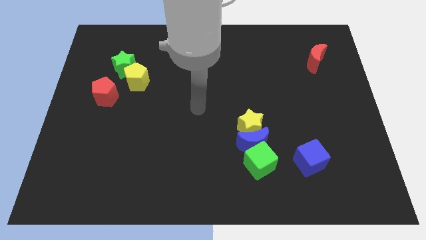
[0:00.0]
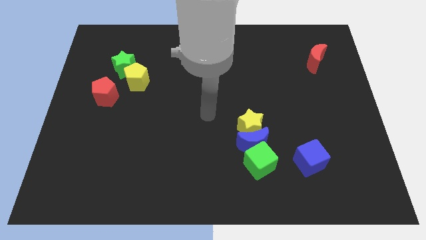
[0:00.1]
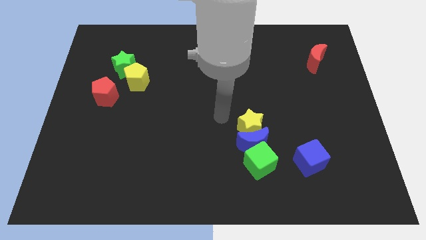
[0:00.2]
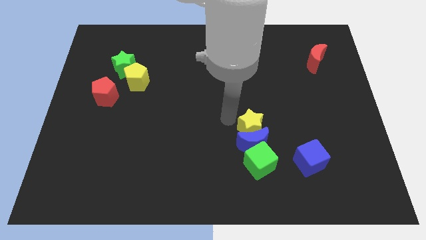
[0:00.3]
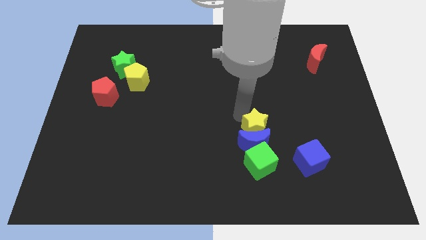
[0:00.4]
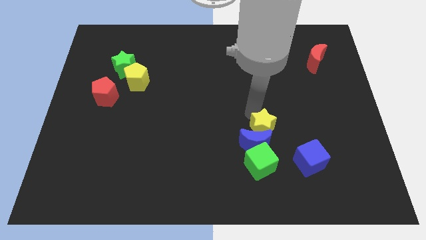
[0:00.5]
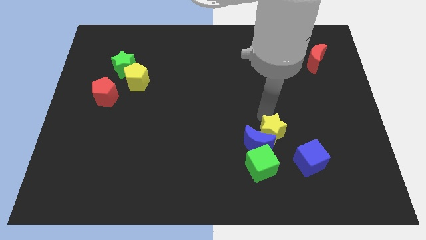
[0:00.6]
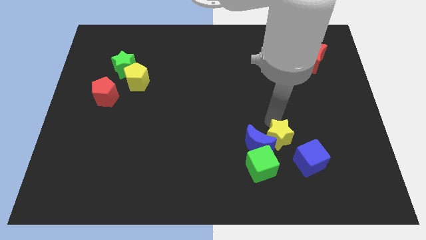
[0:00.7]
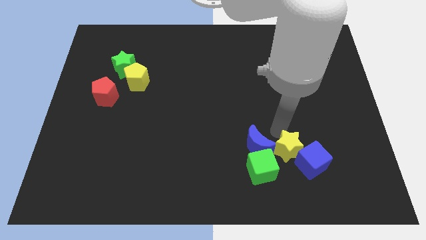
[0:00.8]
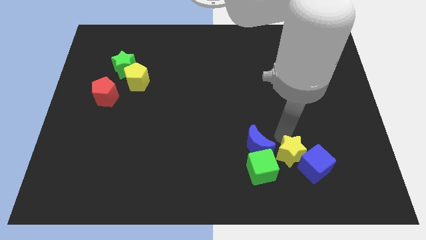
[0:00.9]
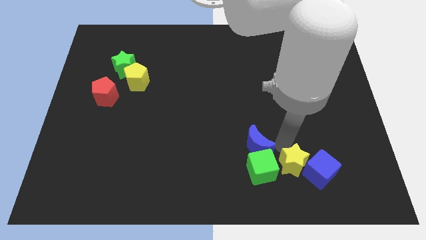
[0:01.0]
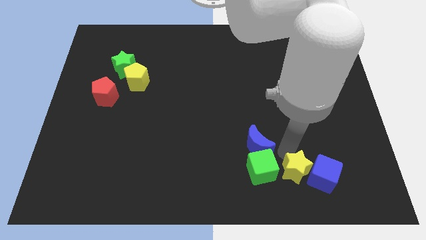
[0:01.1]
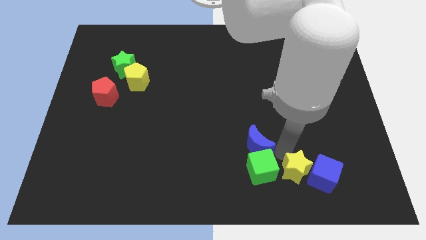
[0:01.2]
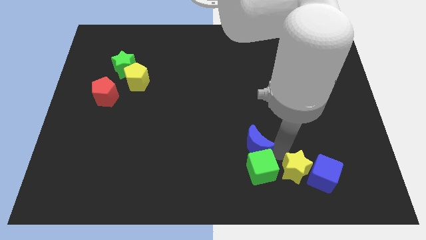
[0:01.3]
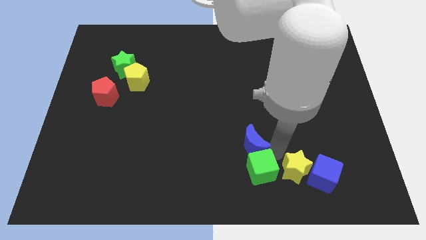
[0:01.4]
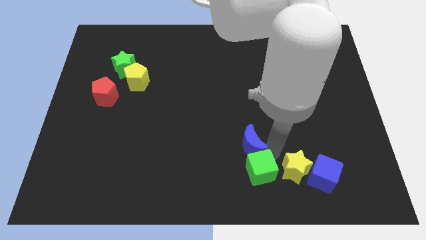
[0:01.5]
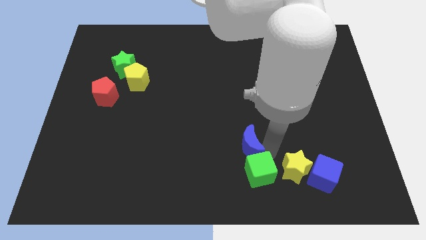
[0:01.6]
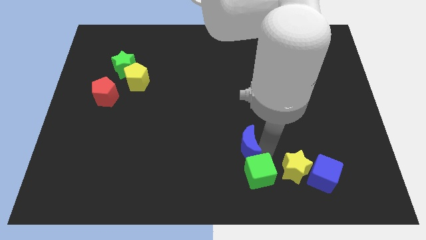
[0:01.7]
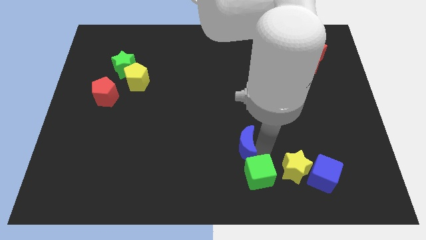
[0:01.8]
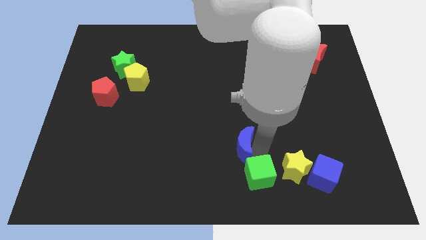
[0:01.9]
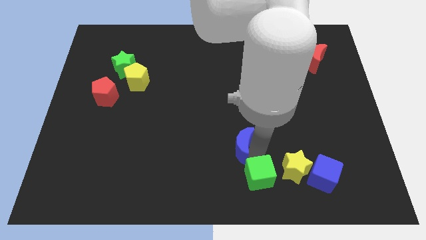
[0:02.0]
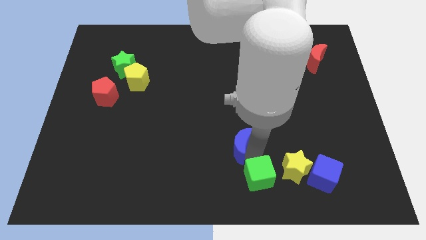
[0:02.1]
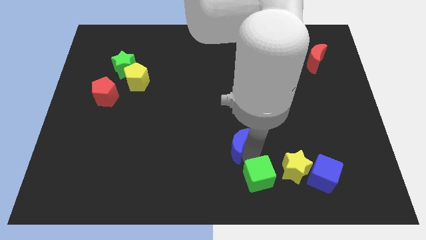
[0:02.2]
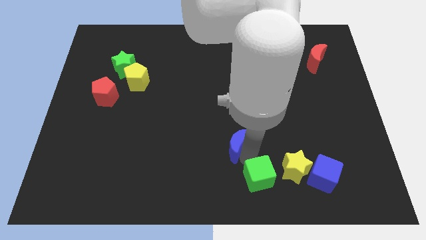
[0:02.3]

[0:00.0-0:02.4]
pull the blue moon apart from the yellow star and green cube

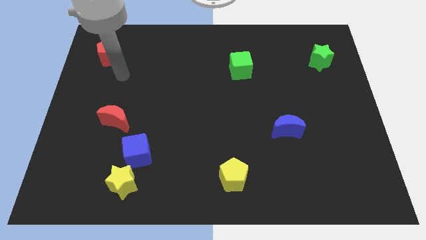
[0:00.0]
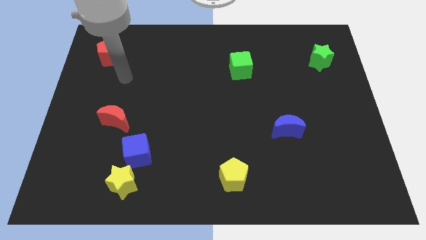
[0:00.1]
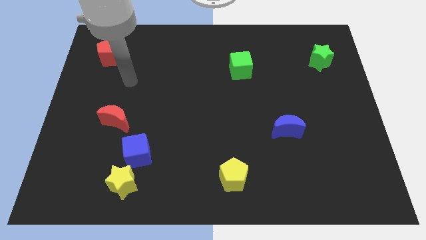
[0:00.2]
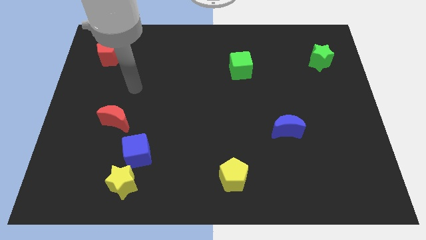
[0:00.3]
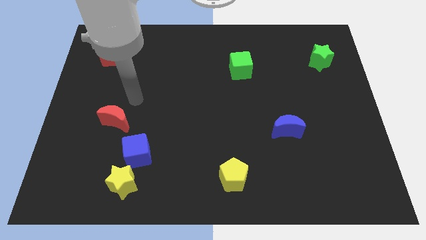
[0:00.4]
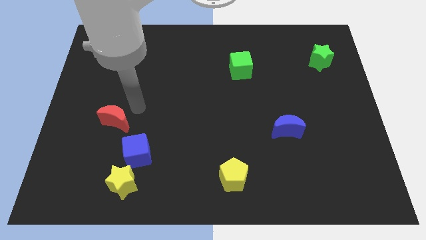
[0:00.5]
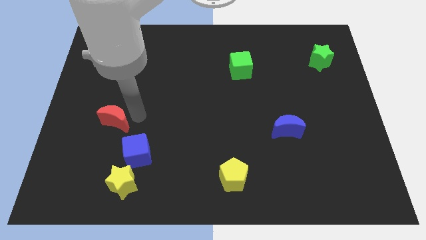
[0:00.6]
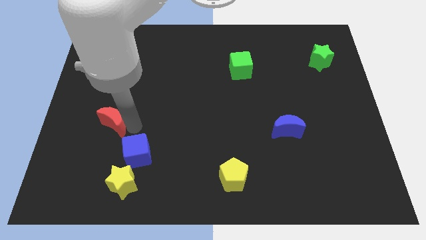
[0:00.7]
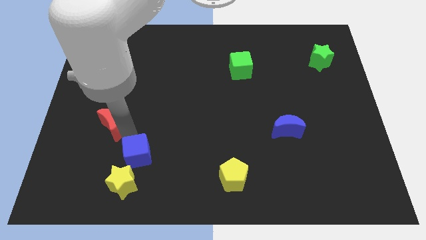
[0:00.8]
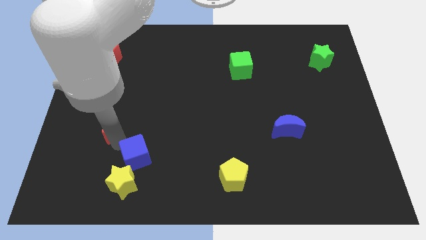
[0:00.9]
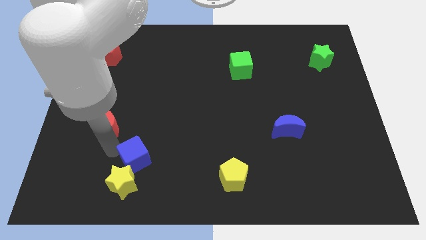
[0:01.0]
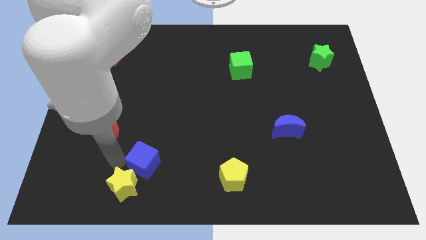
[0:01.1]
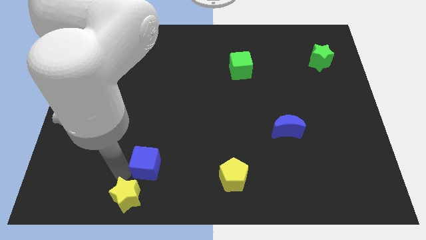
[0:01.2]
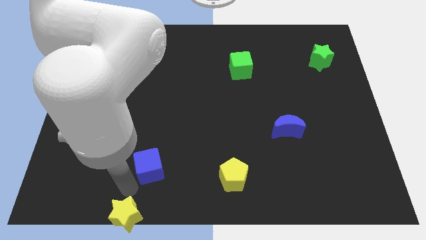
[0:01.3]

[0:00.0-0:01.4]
move the blue cube away from the yellow star

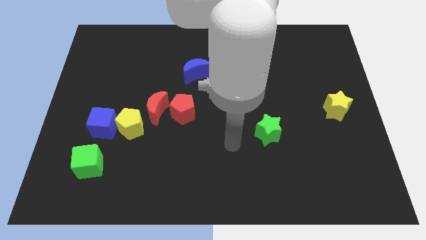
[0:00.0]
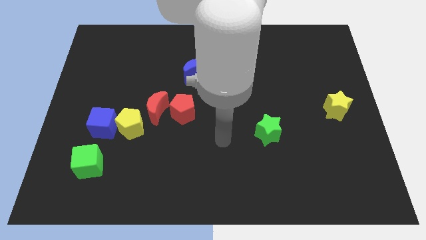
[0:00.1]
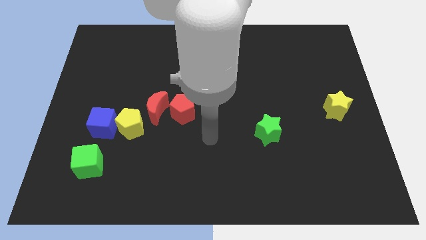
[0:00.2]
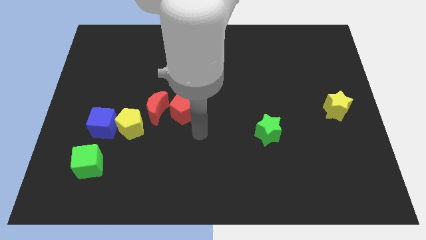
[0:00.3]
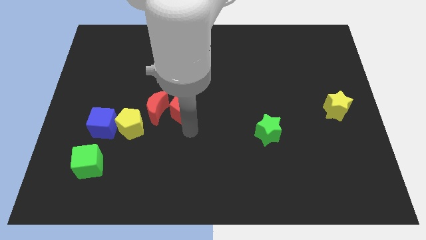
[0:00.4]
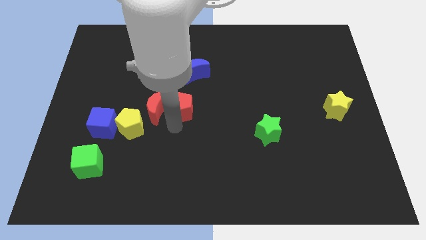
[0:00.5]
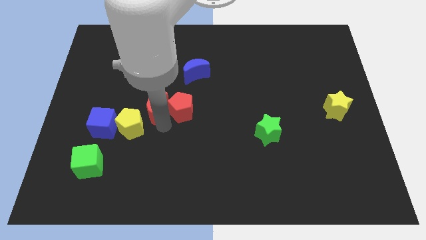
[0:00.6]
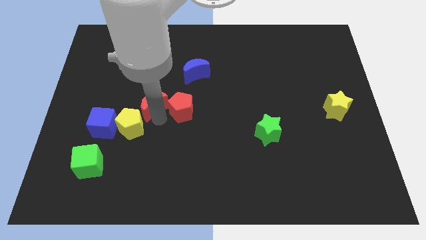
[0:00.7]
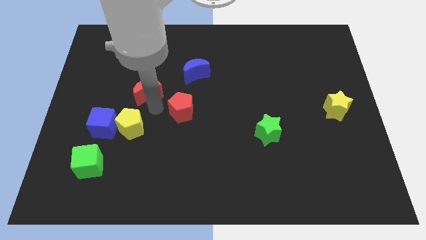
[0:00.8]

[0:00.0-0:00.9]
pull the red pentagon apart from the red moon

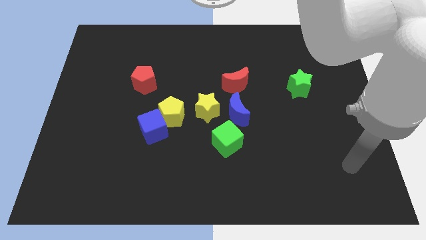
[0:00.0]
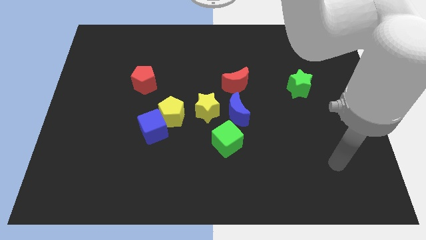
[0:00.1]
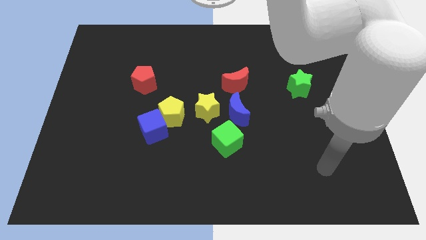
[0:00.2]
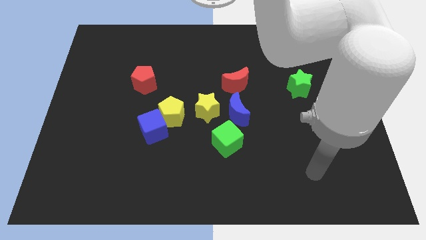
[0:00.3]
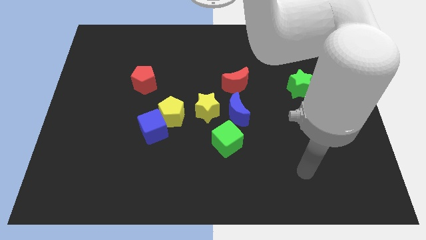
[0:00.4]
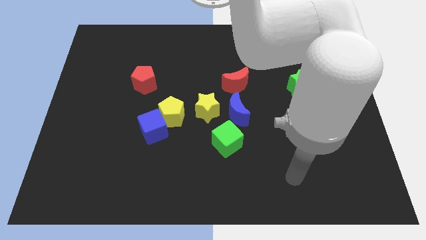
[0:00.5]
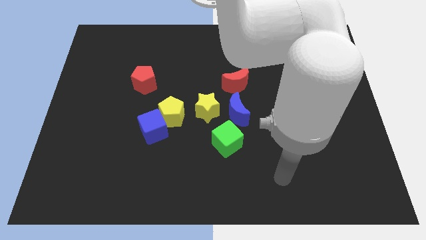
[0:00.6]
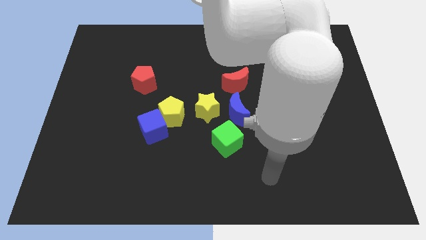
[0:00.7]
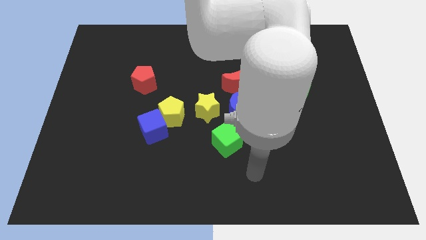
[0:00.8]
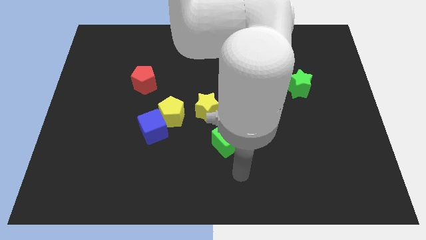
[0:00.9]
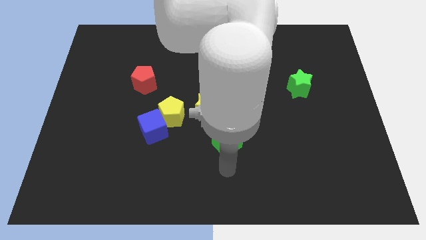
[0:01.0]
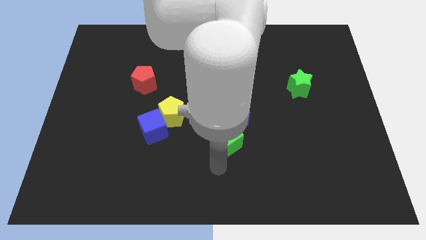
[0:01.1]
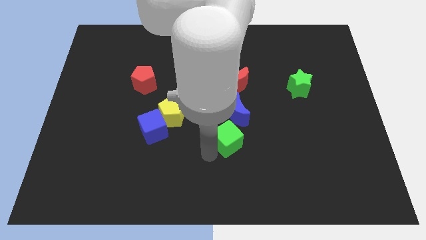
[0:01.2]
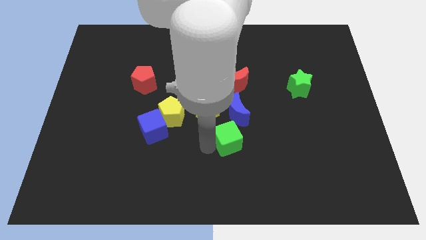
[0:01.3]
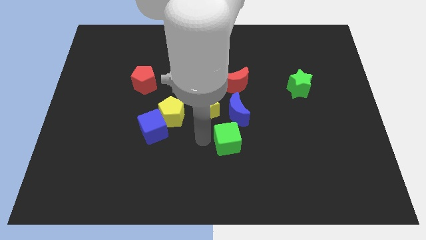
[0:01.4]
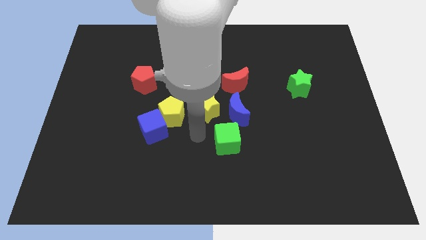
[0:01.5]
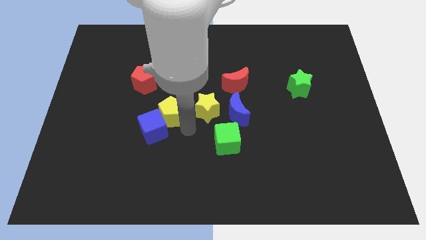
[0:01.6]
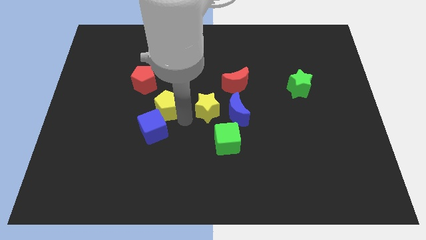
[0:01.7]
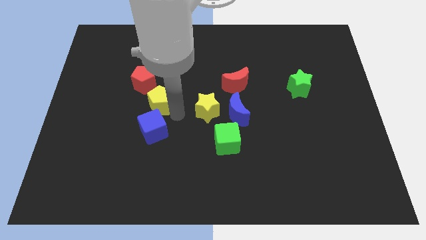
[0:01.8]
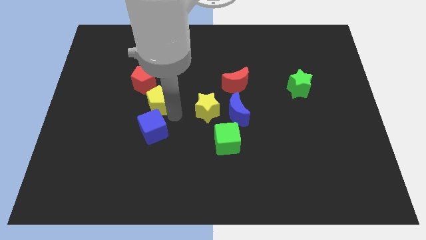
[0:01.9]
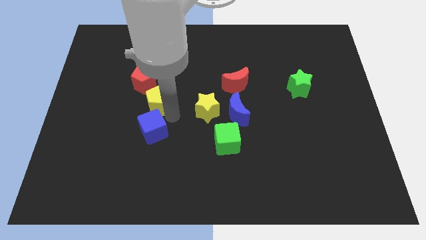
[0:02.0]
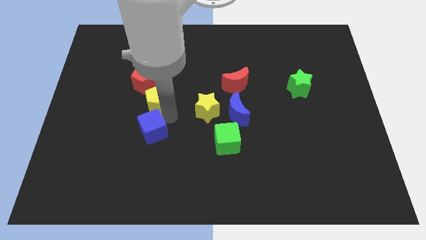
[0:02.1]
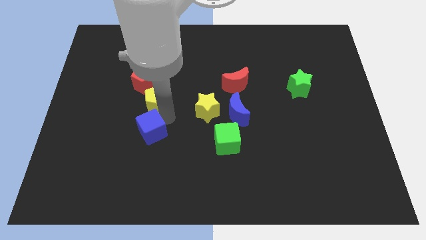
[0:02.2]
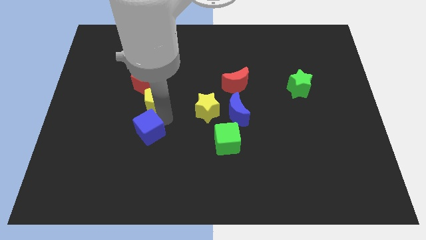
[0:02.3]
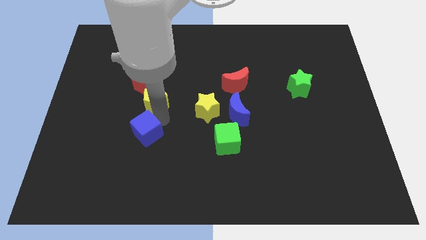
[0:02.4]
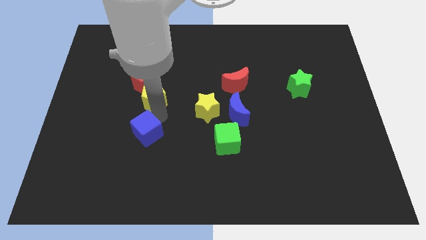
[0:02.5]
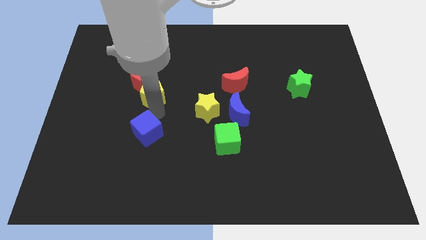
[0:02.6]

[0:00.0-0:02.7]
move the blue cube away from the yellow pentagon

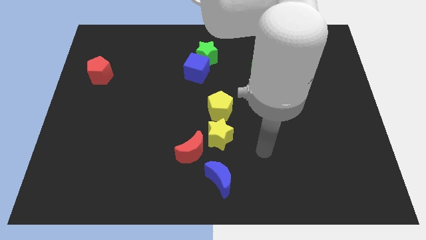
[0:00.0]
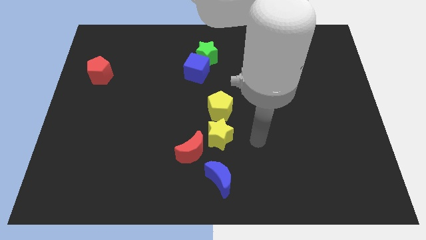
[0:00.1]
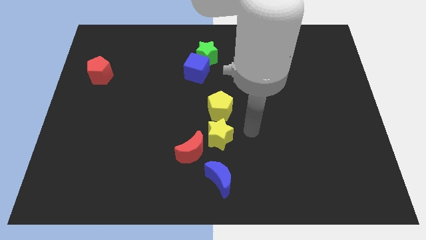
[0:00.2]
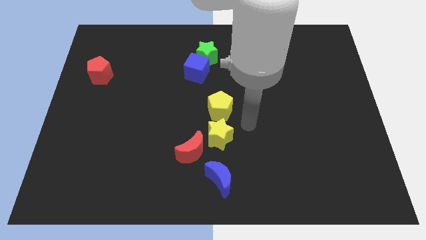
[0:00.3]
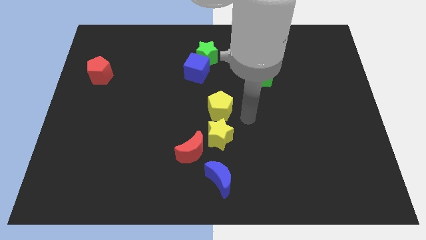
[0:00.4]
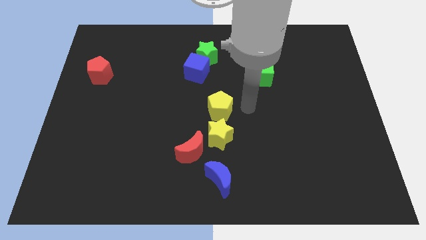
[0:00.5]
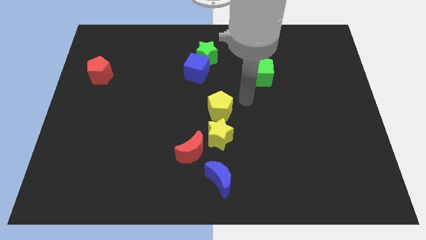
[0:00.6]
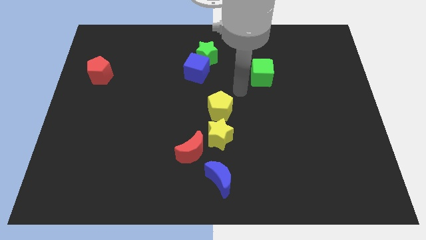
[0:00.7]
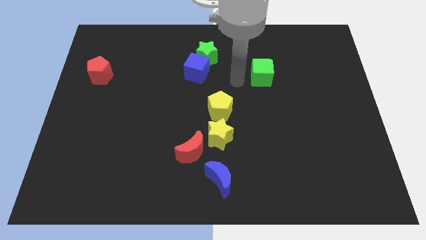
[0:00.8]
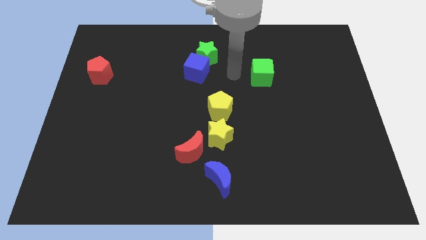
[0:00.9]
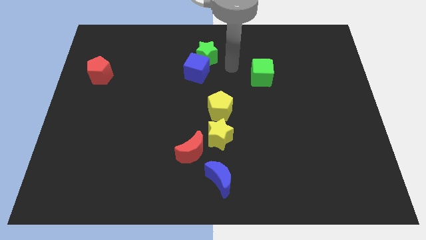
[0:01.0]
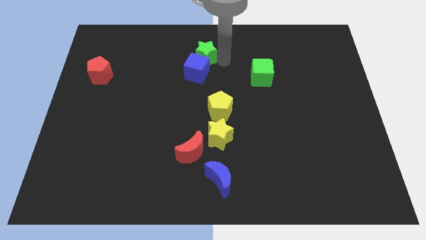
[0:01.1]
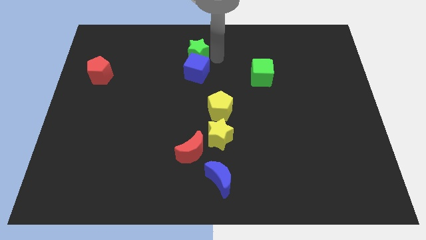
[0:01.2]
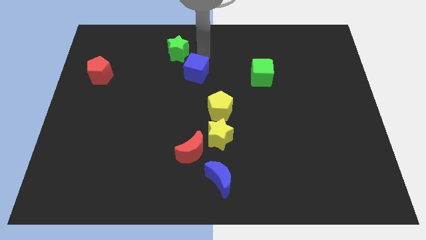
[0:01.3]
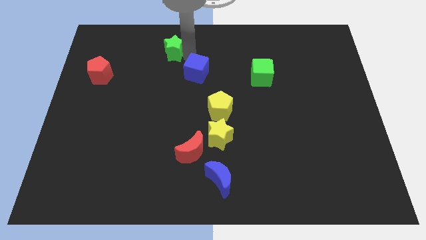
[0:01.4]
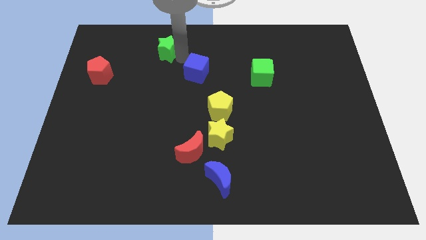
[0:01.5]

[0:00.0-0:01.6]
separate the blue cube from the green star

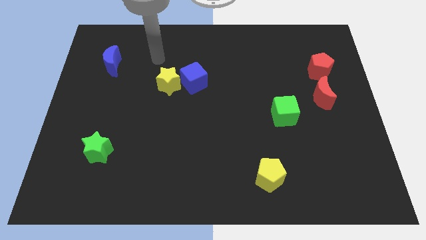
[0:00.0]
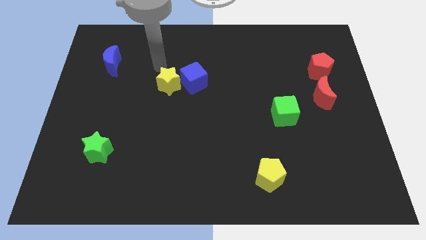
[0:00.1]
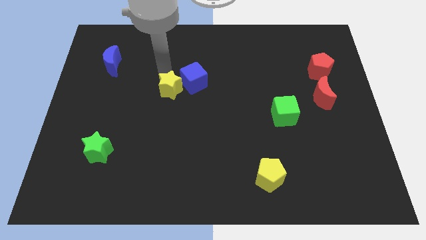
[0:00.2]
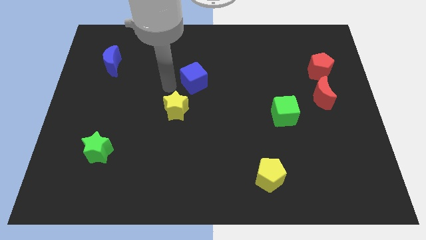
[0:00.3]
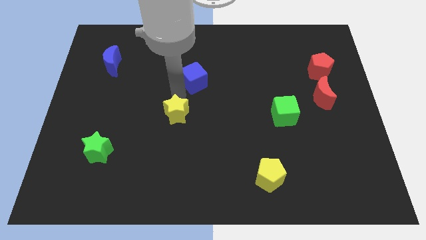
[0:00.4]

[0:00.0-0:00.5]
separate the blue cube from the yellow star
